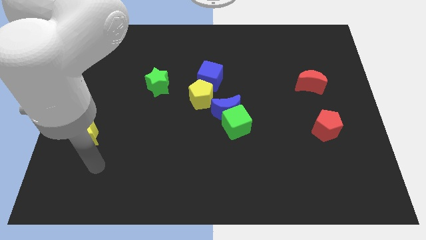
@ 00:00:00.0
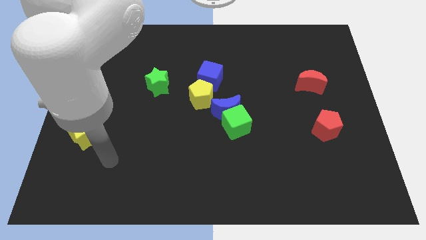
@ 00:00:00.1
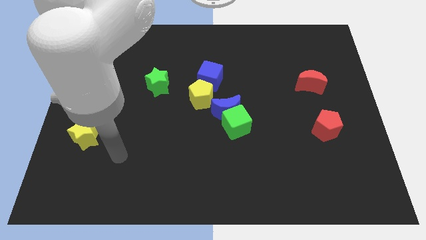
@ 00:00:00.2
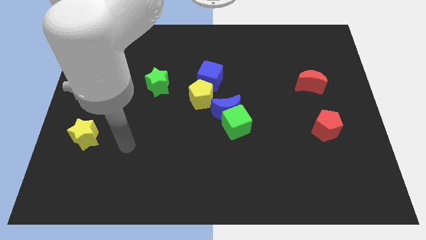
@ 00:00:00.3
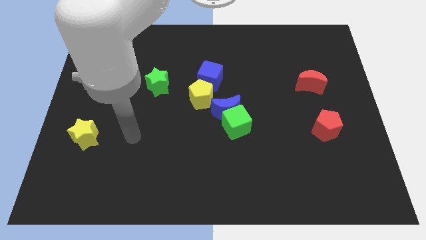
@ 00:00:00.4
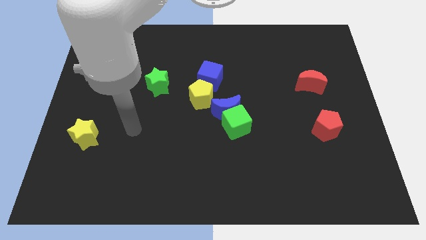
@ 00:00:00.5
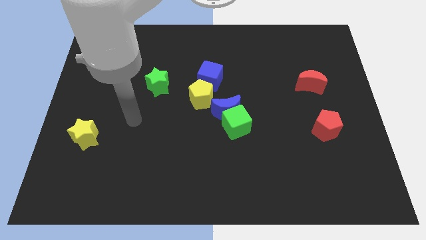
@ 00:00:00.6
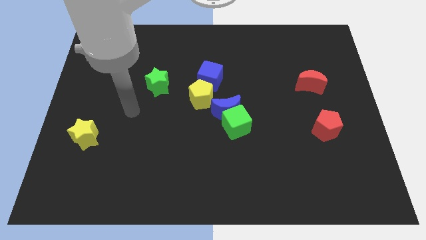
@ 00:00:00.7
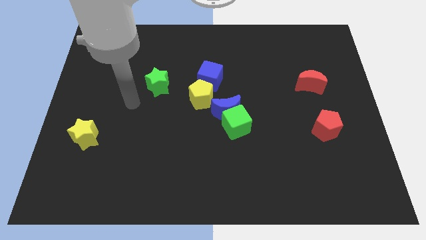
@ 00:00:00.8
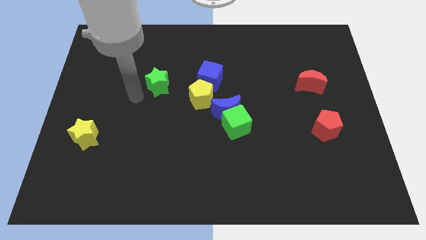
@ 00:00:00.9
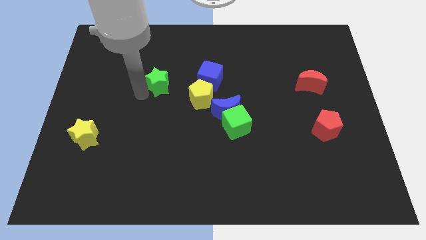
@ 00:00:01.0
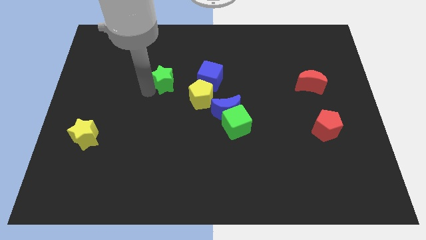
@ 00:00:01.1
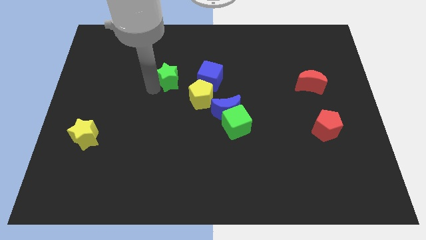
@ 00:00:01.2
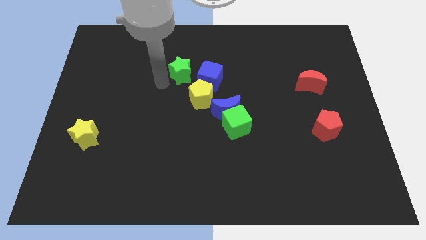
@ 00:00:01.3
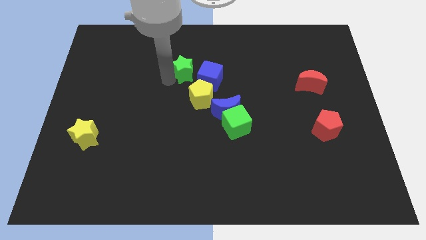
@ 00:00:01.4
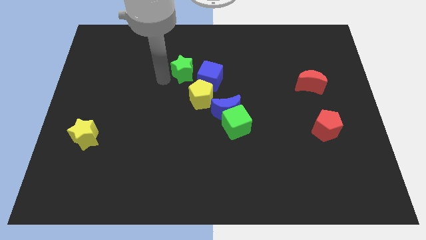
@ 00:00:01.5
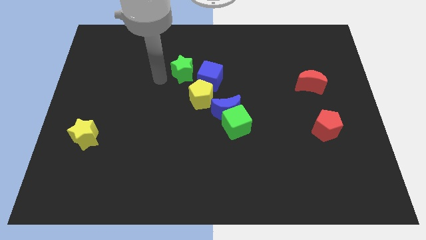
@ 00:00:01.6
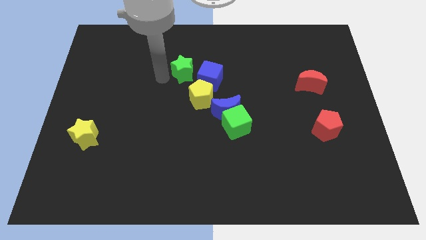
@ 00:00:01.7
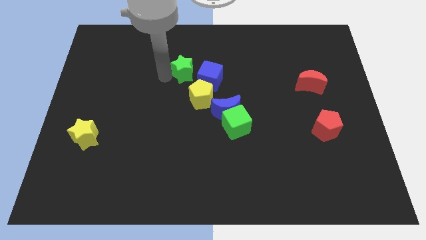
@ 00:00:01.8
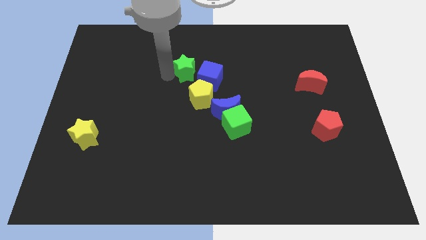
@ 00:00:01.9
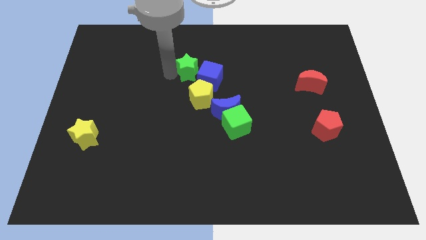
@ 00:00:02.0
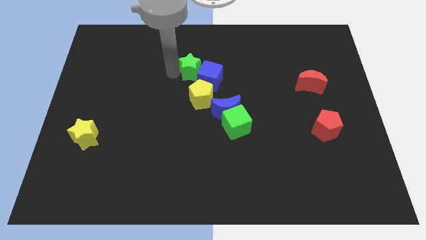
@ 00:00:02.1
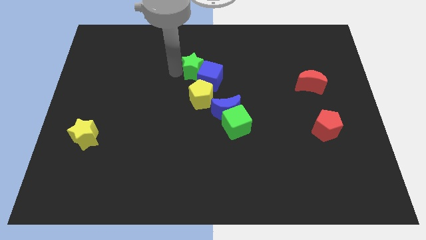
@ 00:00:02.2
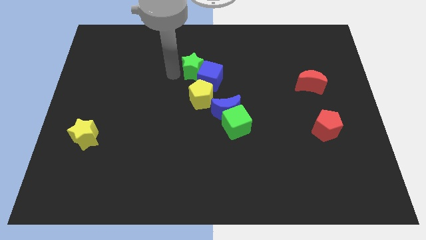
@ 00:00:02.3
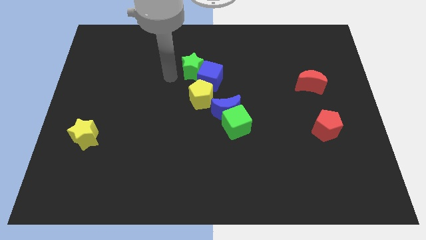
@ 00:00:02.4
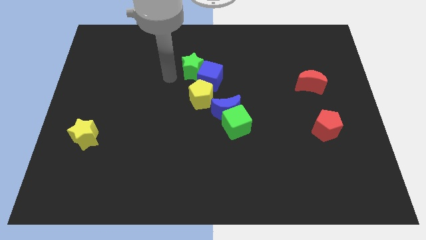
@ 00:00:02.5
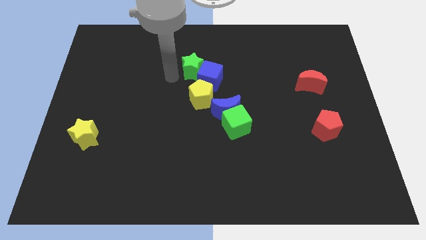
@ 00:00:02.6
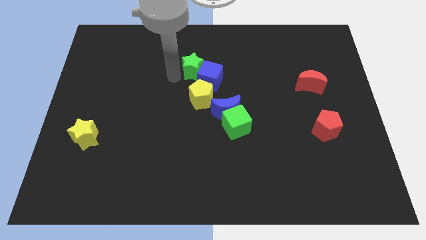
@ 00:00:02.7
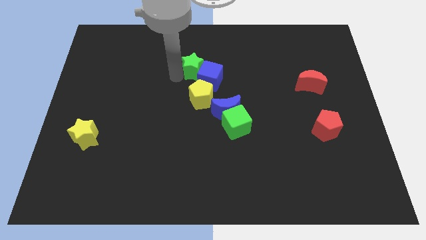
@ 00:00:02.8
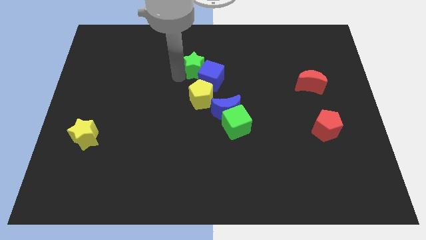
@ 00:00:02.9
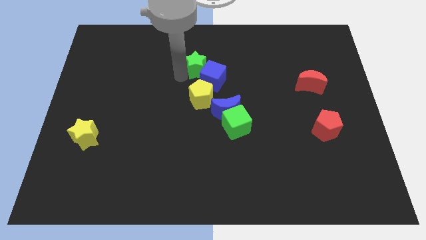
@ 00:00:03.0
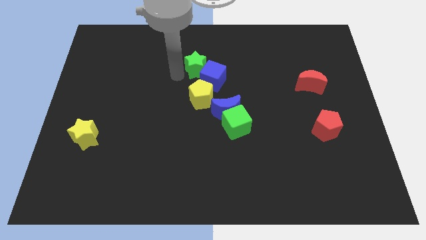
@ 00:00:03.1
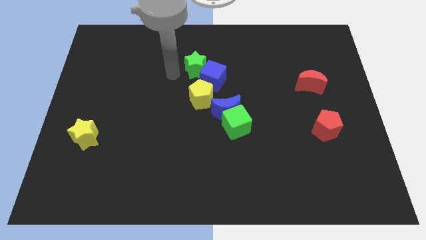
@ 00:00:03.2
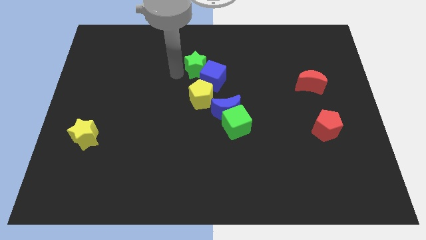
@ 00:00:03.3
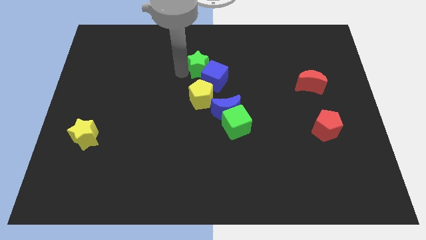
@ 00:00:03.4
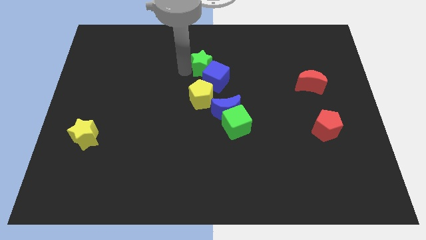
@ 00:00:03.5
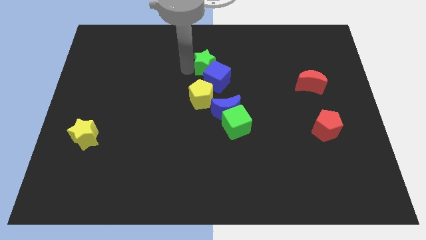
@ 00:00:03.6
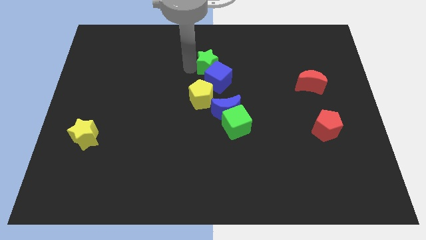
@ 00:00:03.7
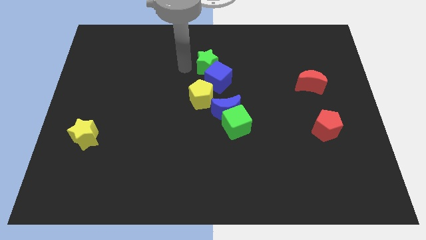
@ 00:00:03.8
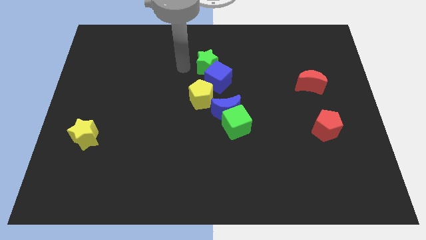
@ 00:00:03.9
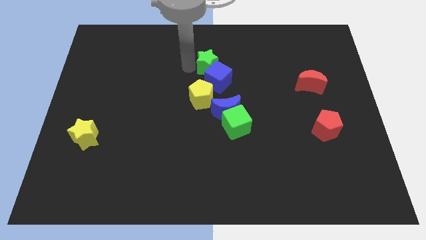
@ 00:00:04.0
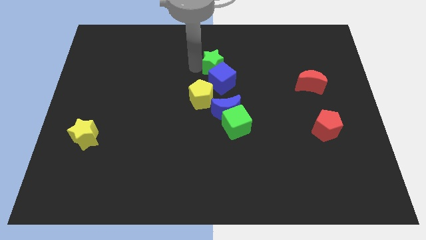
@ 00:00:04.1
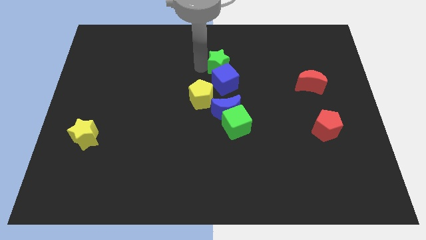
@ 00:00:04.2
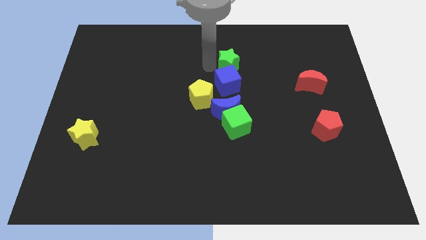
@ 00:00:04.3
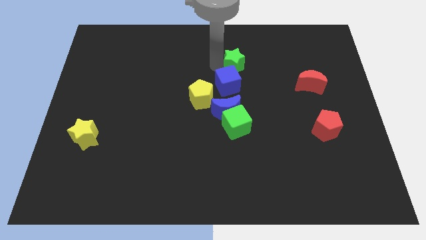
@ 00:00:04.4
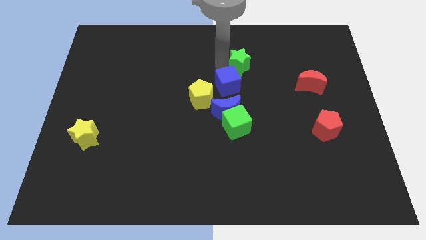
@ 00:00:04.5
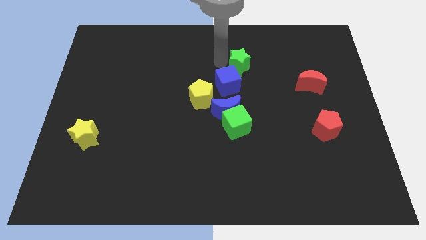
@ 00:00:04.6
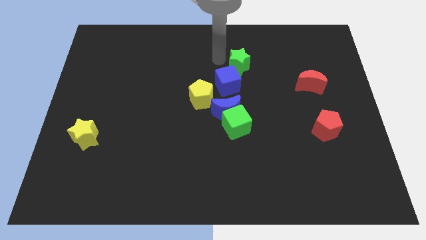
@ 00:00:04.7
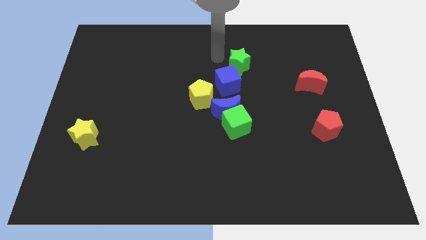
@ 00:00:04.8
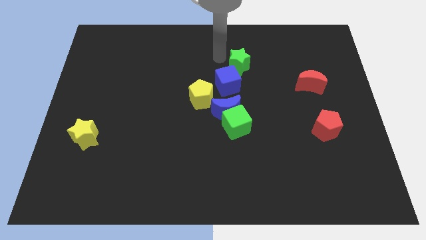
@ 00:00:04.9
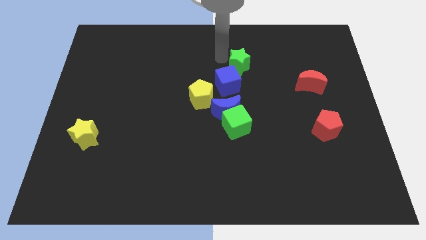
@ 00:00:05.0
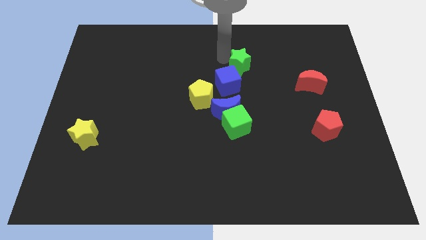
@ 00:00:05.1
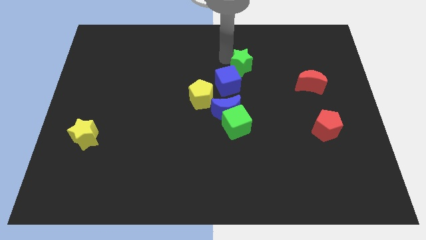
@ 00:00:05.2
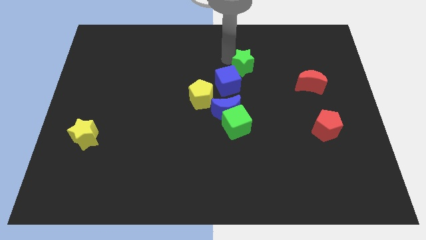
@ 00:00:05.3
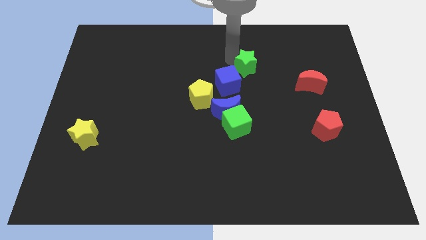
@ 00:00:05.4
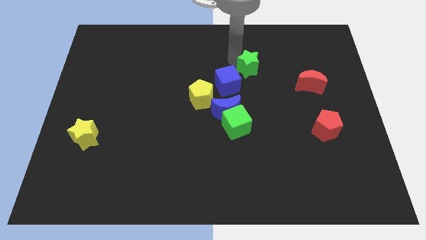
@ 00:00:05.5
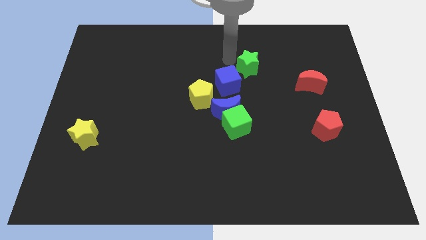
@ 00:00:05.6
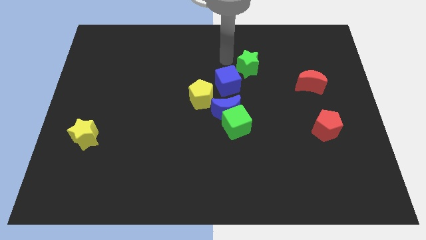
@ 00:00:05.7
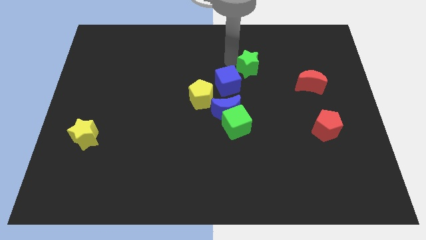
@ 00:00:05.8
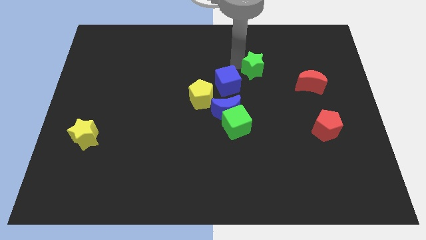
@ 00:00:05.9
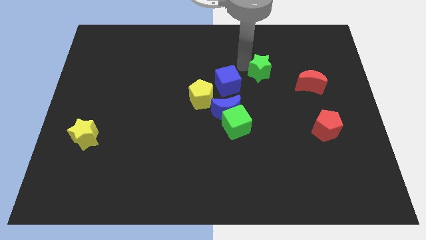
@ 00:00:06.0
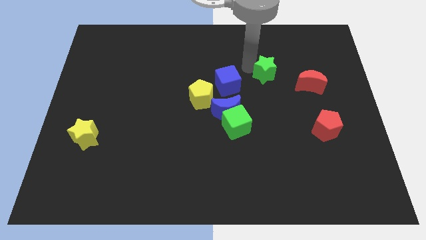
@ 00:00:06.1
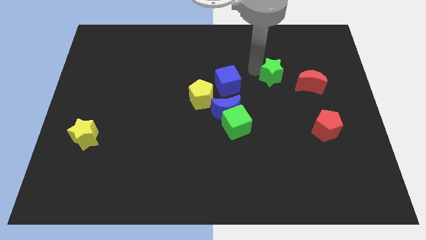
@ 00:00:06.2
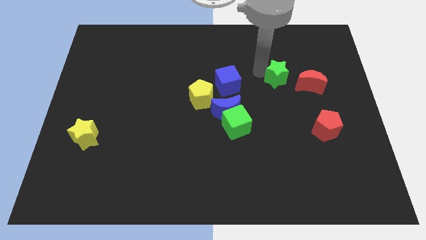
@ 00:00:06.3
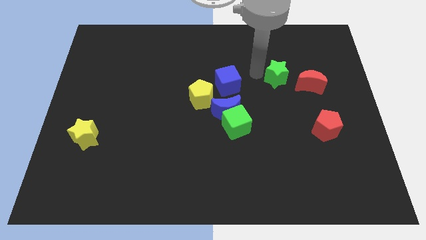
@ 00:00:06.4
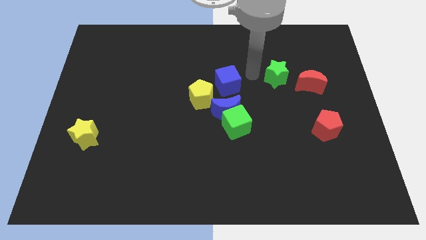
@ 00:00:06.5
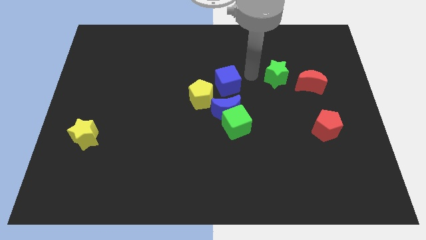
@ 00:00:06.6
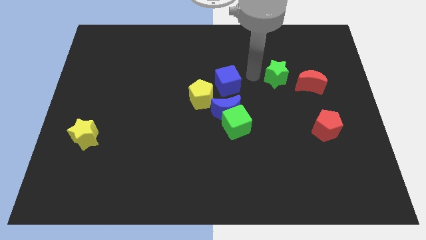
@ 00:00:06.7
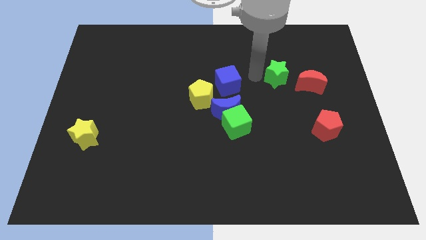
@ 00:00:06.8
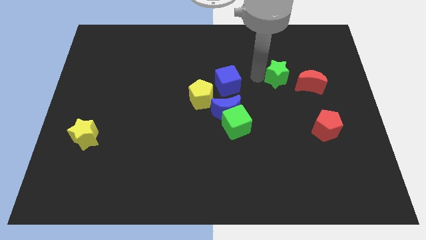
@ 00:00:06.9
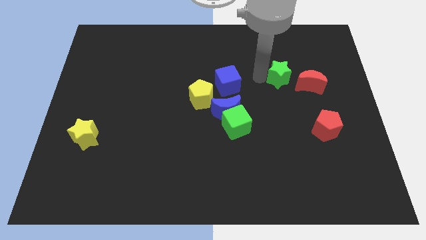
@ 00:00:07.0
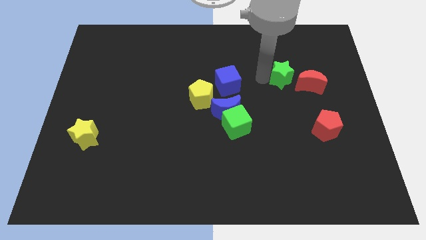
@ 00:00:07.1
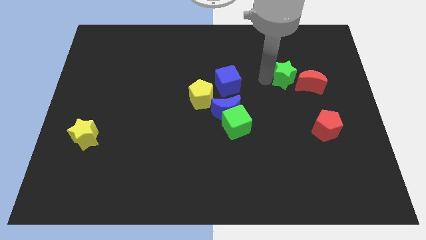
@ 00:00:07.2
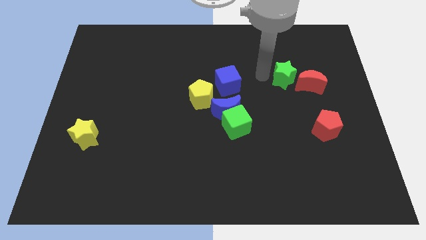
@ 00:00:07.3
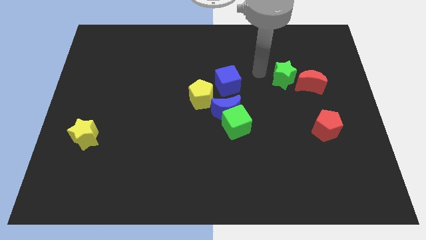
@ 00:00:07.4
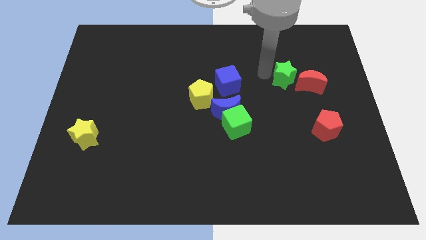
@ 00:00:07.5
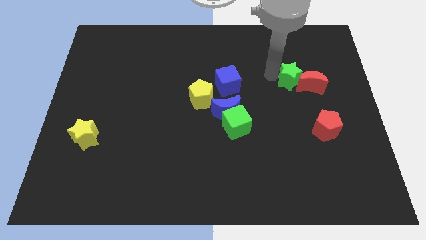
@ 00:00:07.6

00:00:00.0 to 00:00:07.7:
put the green star to the red moon
